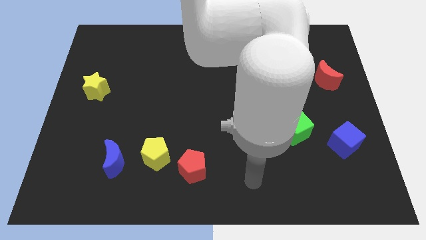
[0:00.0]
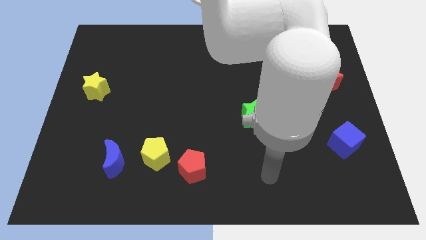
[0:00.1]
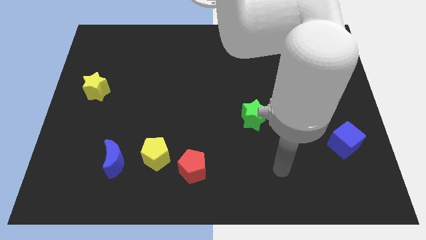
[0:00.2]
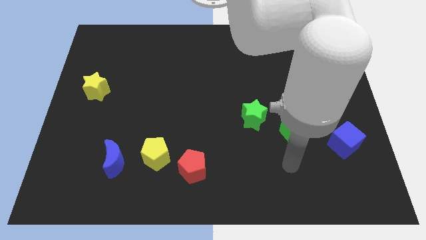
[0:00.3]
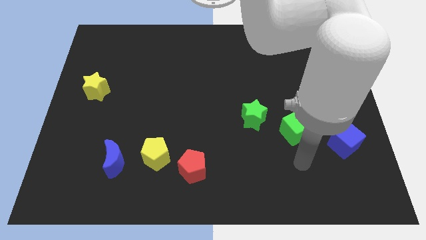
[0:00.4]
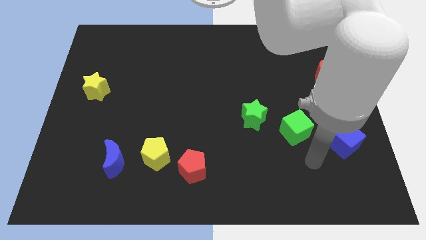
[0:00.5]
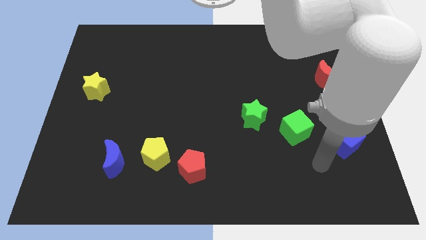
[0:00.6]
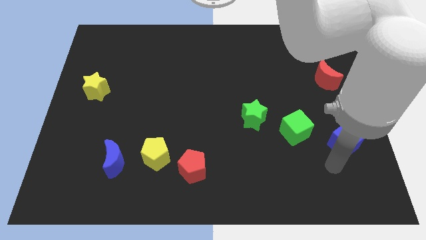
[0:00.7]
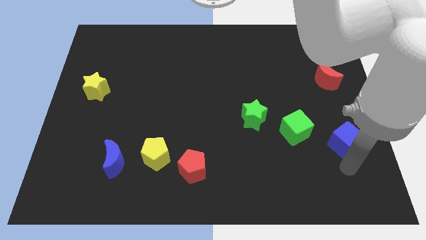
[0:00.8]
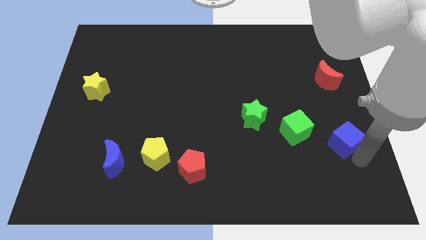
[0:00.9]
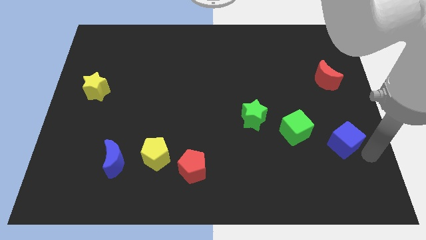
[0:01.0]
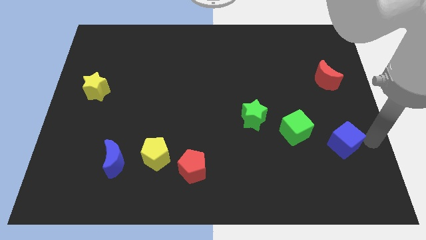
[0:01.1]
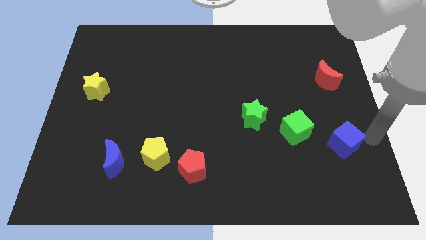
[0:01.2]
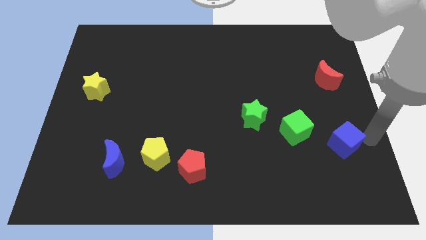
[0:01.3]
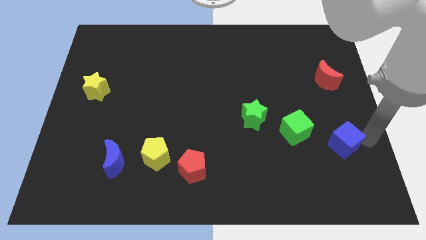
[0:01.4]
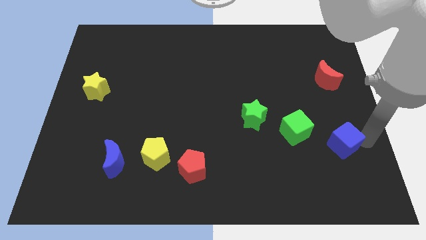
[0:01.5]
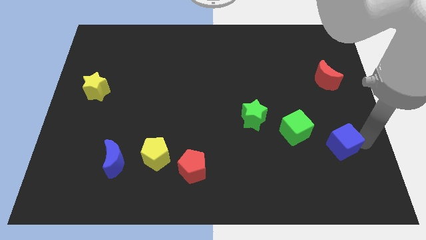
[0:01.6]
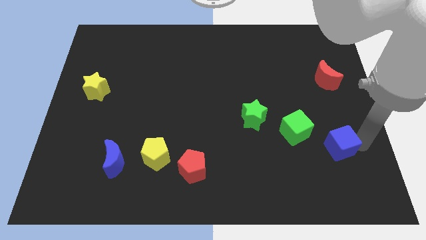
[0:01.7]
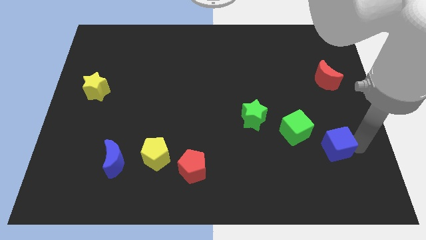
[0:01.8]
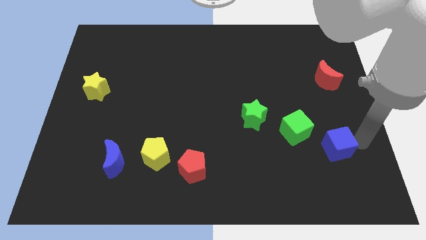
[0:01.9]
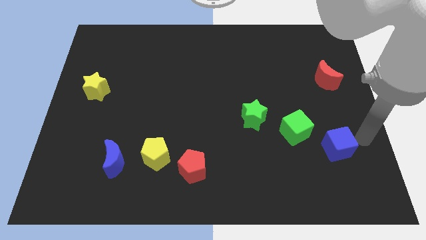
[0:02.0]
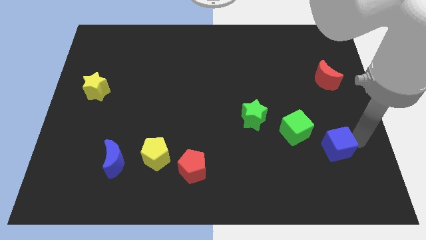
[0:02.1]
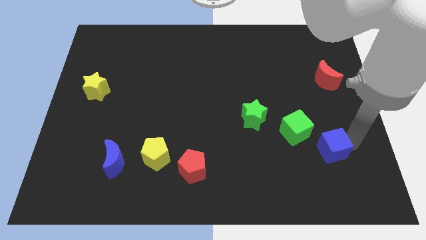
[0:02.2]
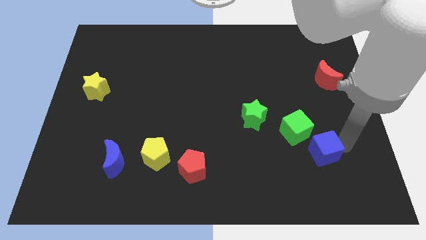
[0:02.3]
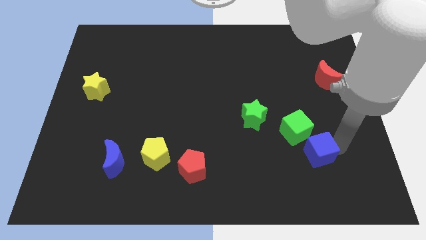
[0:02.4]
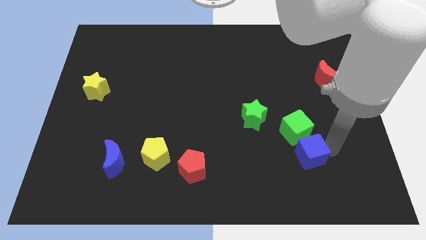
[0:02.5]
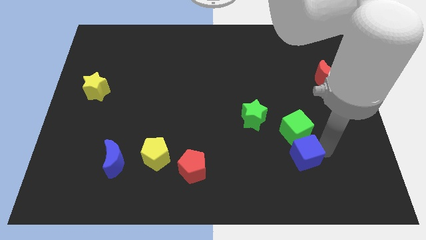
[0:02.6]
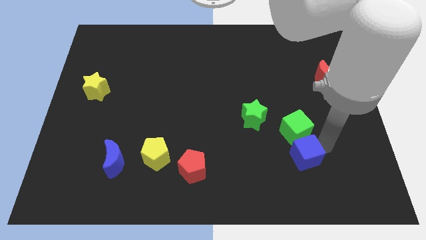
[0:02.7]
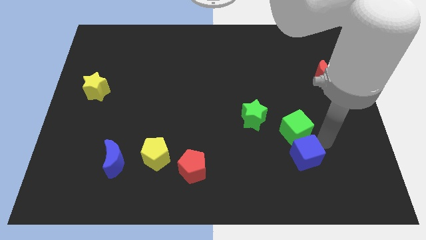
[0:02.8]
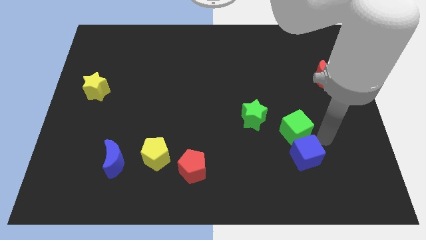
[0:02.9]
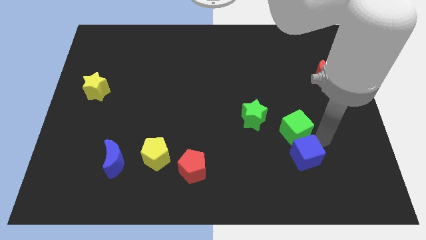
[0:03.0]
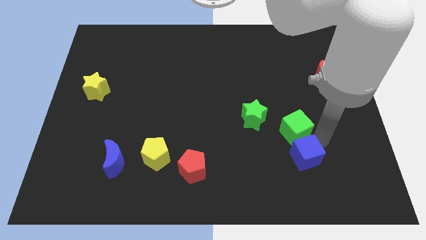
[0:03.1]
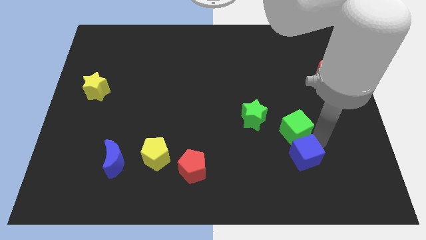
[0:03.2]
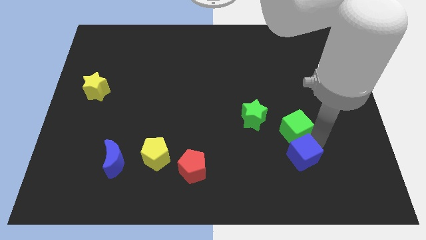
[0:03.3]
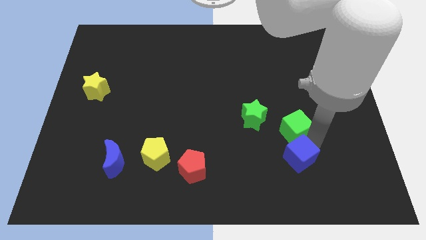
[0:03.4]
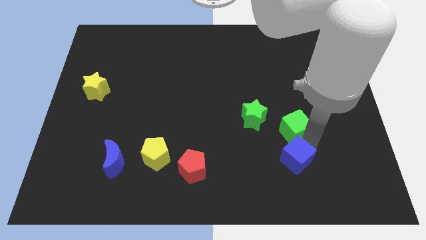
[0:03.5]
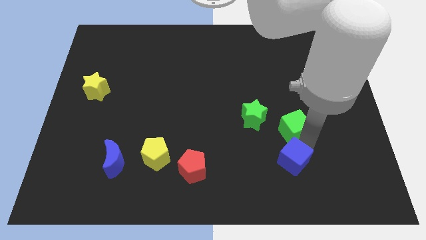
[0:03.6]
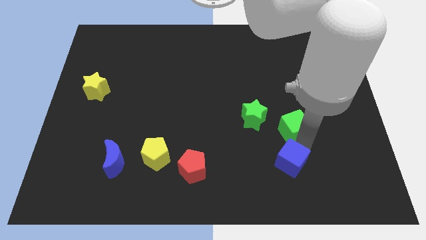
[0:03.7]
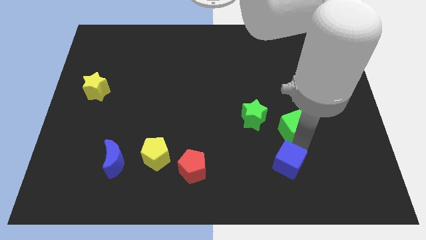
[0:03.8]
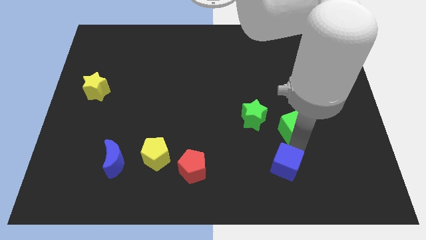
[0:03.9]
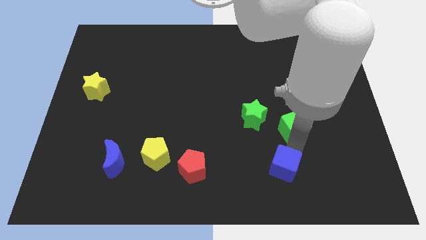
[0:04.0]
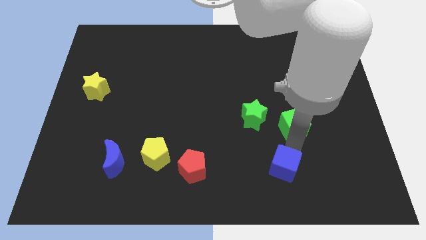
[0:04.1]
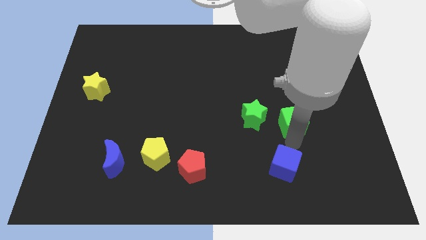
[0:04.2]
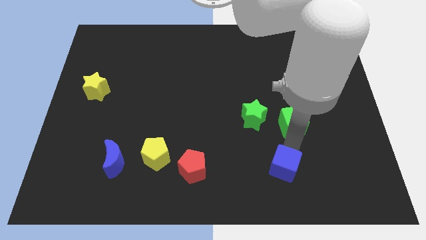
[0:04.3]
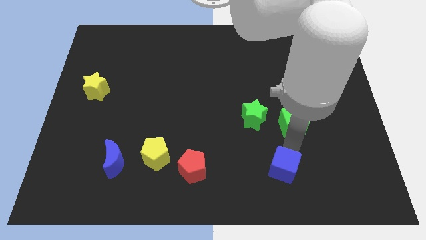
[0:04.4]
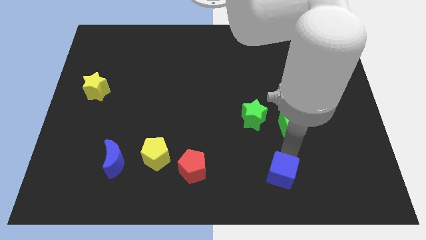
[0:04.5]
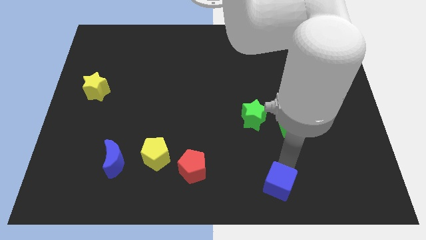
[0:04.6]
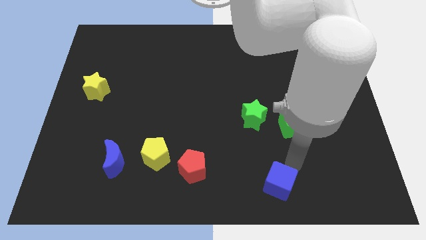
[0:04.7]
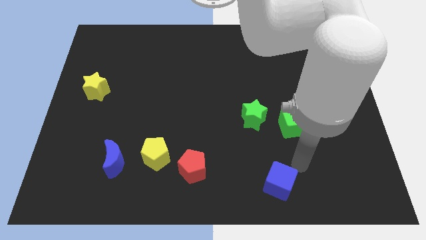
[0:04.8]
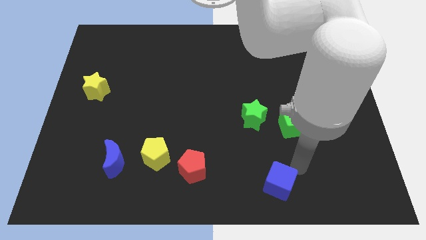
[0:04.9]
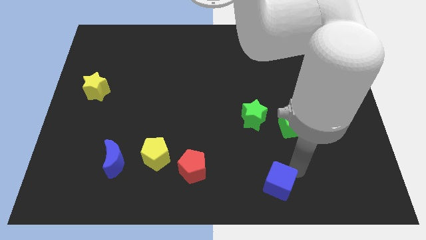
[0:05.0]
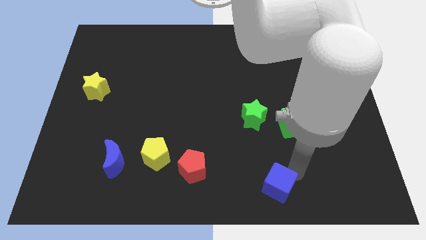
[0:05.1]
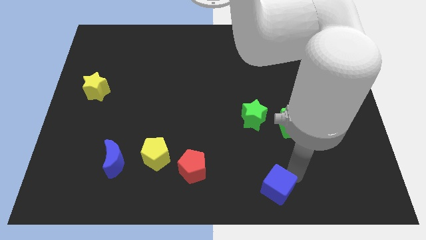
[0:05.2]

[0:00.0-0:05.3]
slide the blue cube to the bottom side

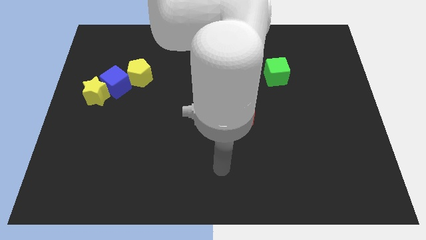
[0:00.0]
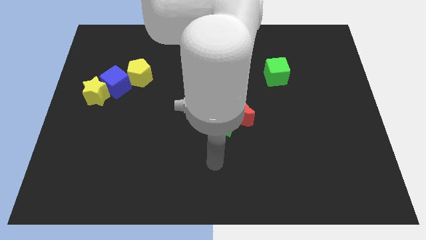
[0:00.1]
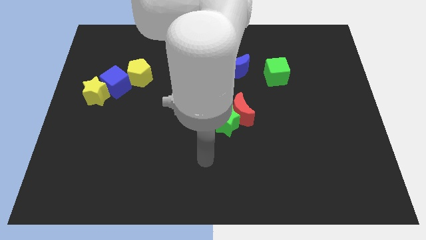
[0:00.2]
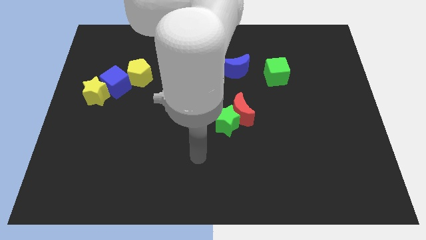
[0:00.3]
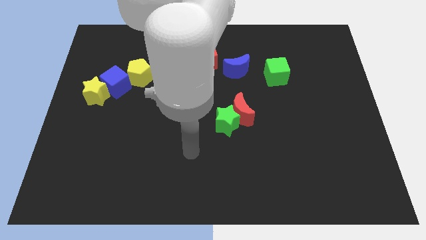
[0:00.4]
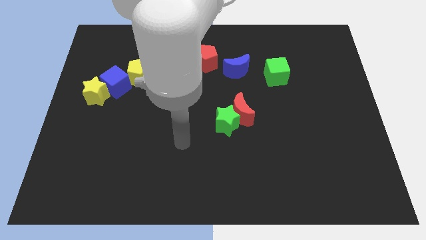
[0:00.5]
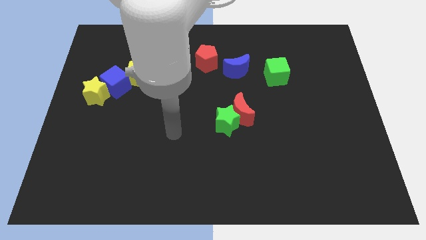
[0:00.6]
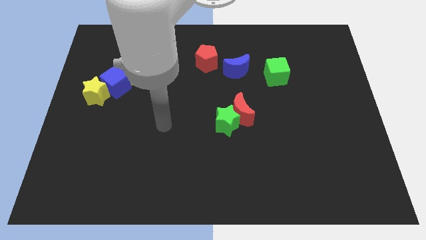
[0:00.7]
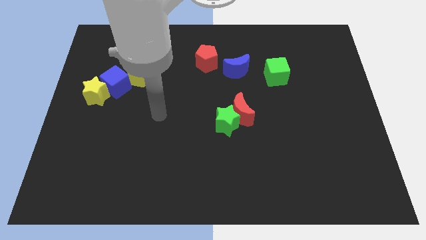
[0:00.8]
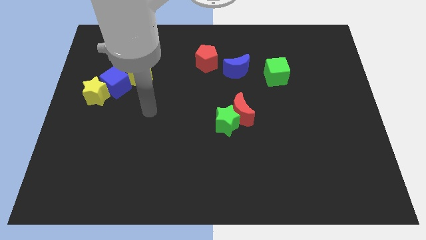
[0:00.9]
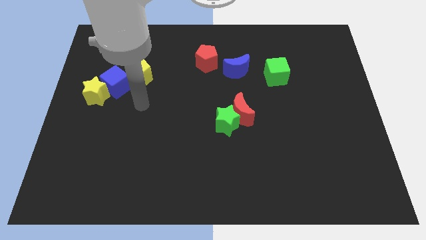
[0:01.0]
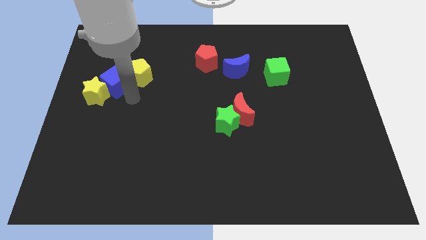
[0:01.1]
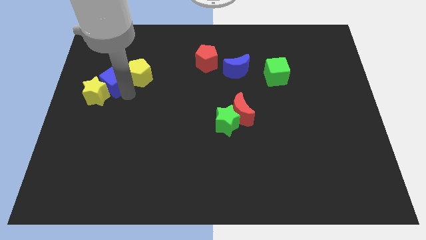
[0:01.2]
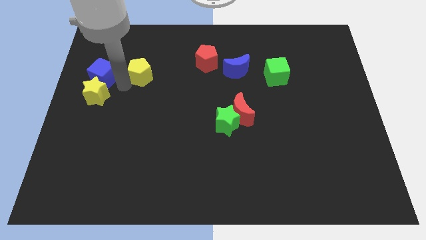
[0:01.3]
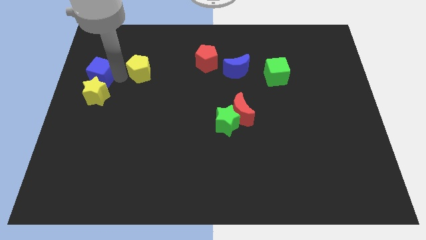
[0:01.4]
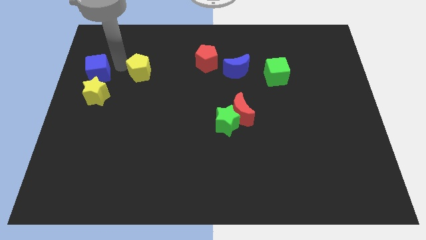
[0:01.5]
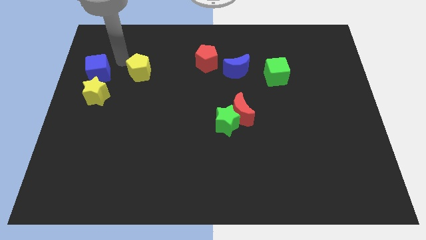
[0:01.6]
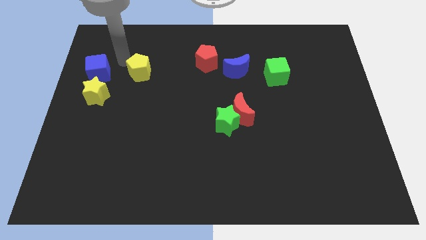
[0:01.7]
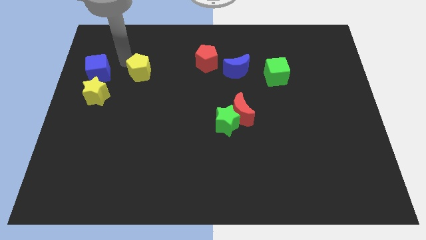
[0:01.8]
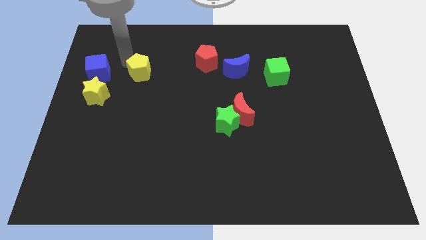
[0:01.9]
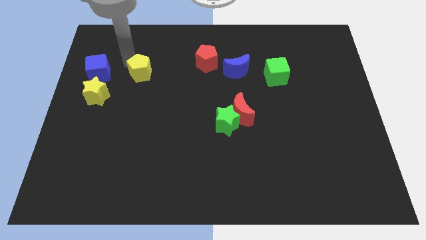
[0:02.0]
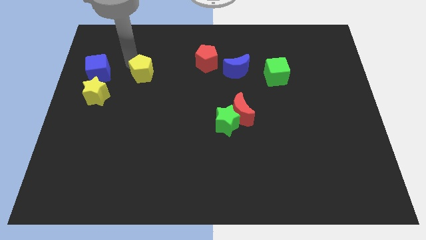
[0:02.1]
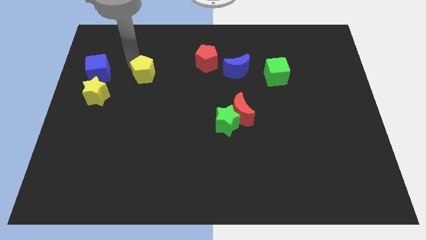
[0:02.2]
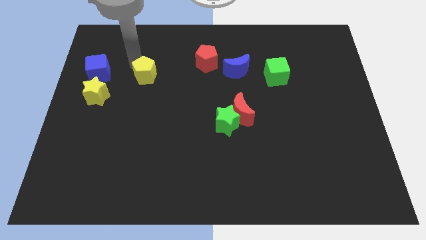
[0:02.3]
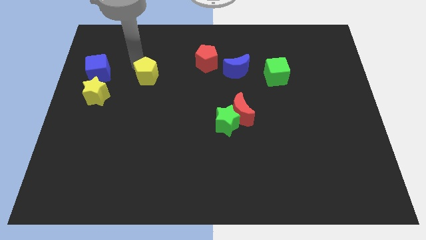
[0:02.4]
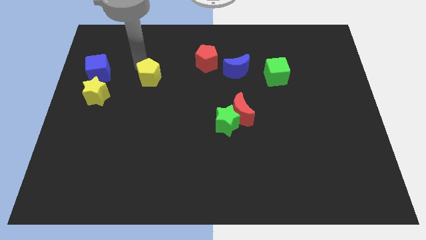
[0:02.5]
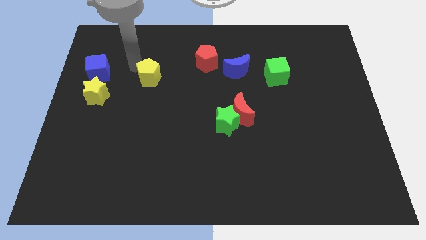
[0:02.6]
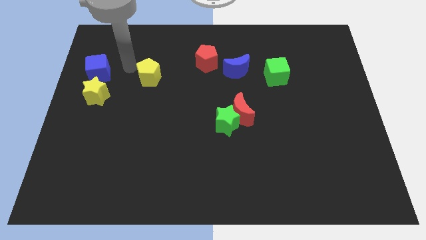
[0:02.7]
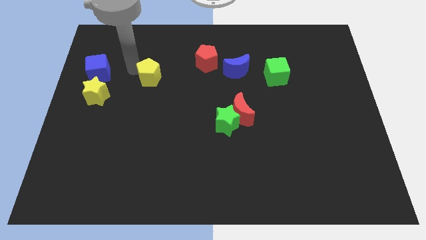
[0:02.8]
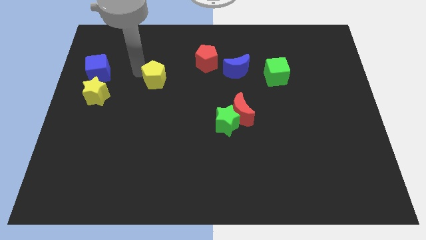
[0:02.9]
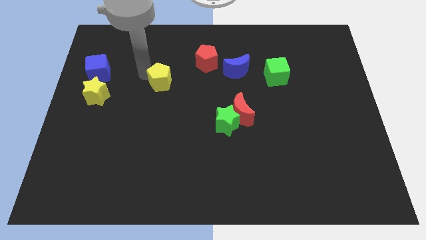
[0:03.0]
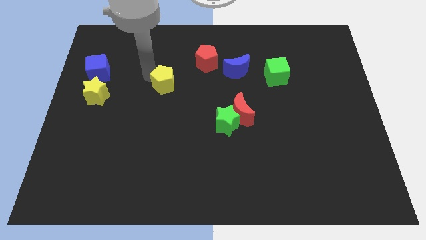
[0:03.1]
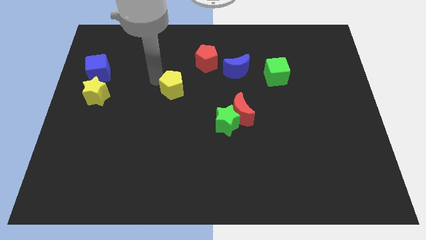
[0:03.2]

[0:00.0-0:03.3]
push the yellow pentagon to the middle of the board

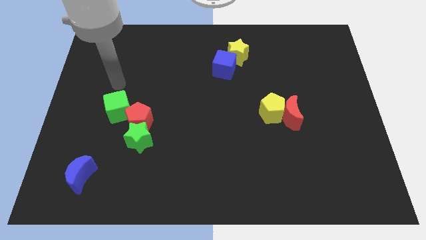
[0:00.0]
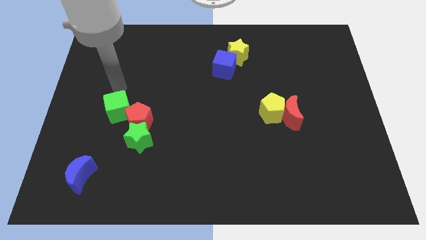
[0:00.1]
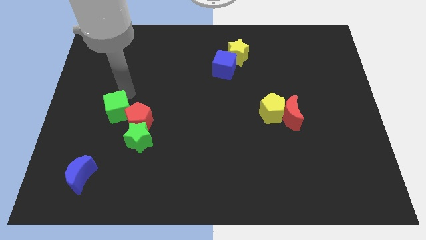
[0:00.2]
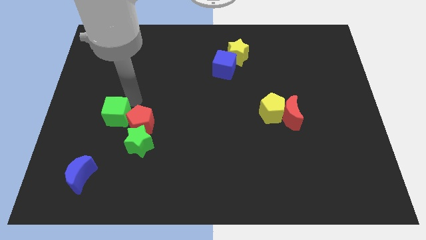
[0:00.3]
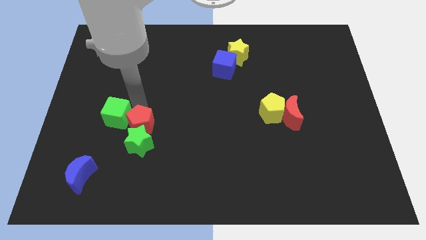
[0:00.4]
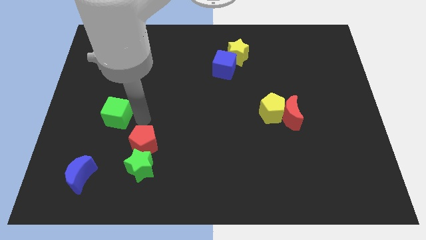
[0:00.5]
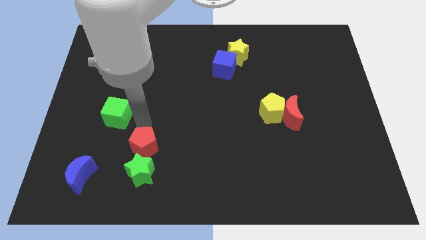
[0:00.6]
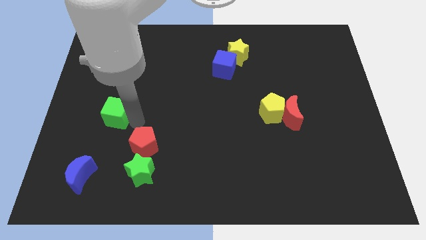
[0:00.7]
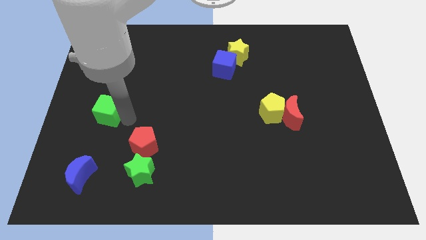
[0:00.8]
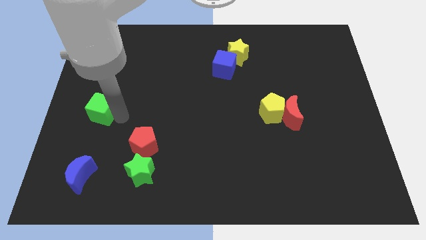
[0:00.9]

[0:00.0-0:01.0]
put the green cube to the left side of the board
